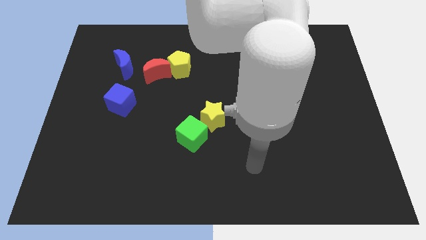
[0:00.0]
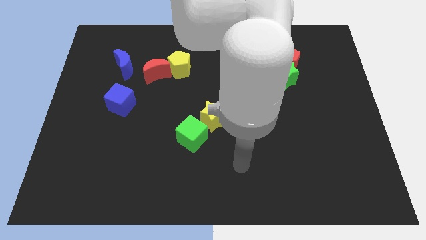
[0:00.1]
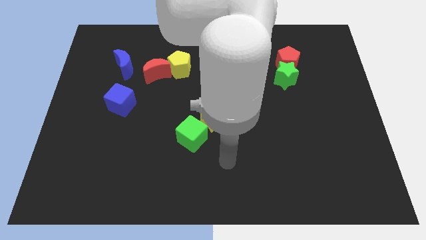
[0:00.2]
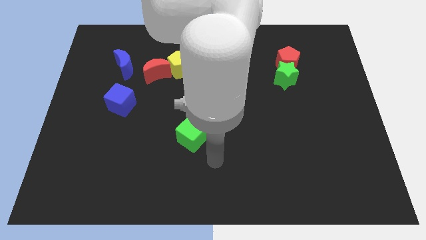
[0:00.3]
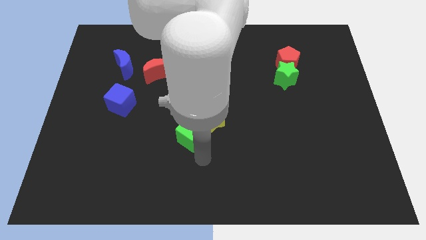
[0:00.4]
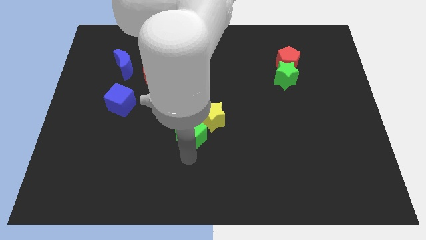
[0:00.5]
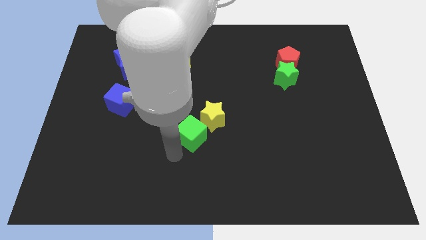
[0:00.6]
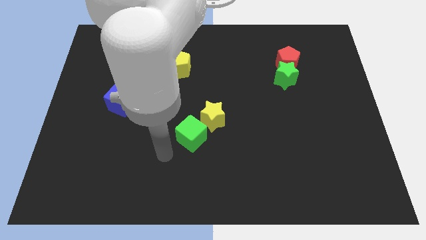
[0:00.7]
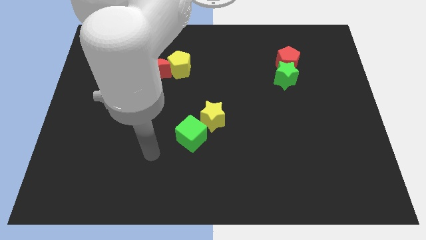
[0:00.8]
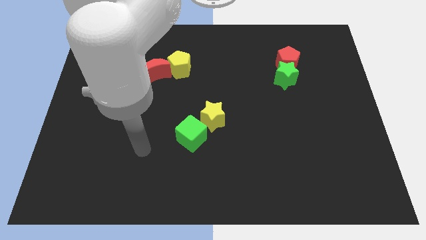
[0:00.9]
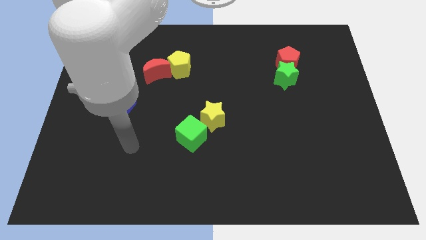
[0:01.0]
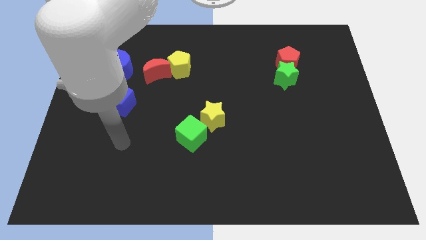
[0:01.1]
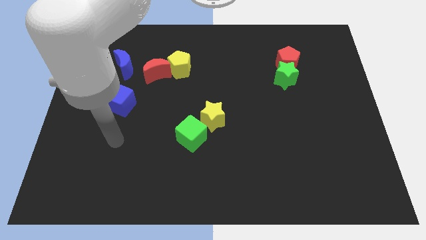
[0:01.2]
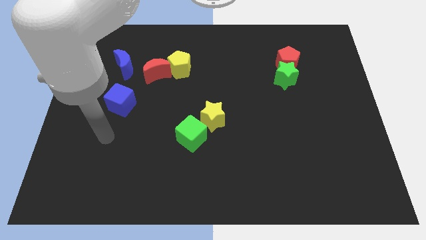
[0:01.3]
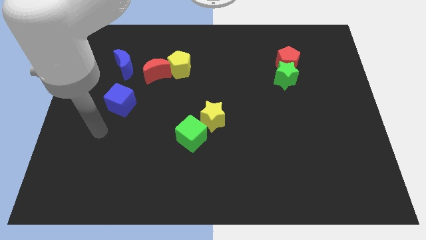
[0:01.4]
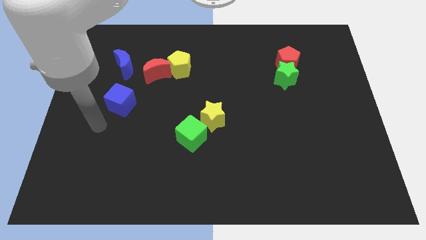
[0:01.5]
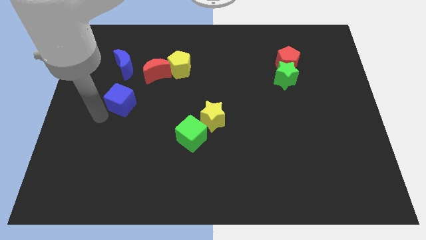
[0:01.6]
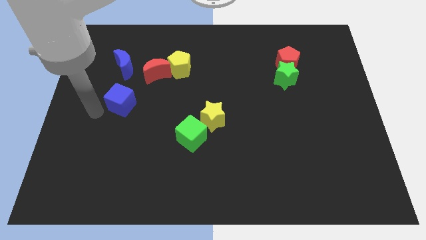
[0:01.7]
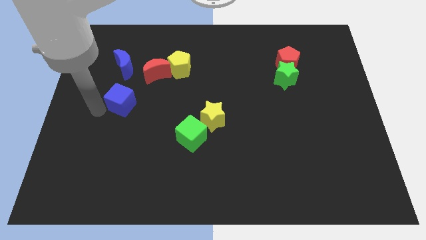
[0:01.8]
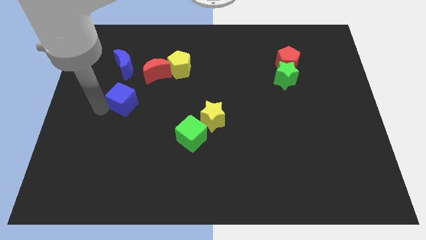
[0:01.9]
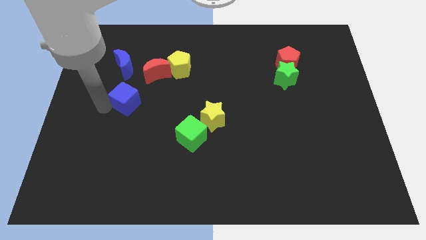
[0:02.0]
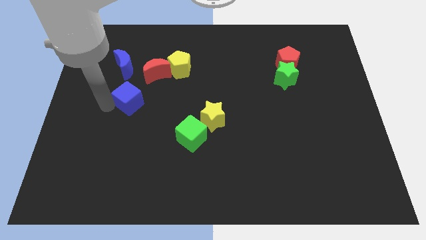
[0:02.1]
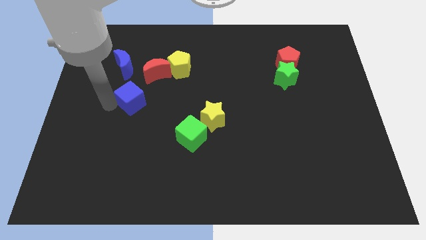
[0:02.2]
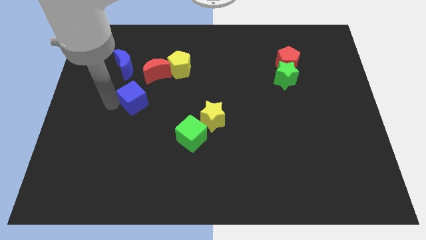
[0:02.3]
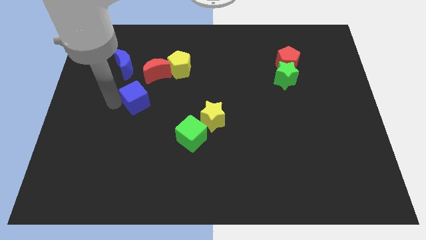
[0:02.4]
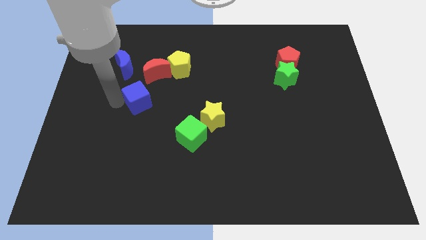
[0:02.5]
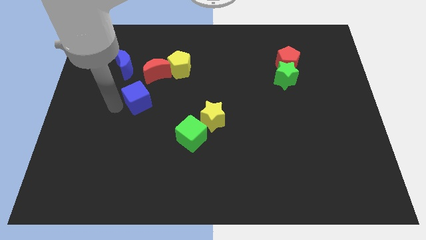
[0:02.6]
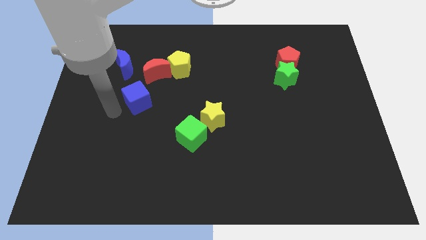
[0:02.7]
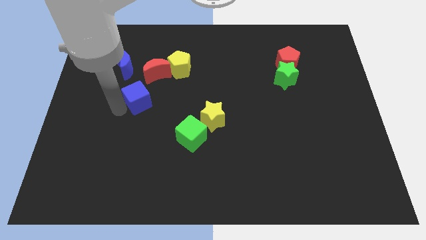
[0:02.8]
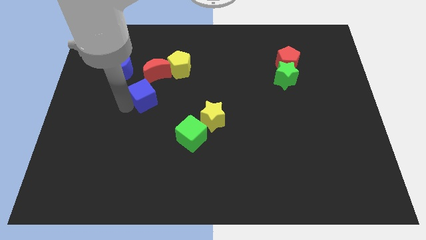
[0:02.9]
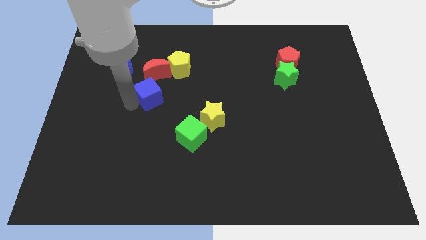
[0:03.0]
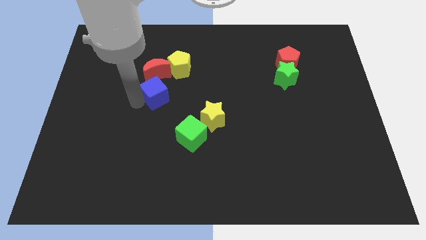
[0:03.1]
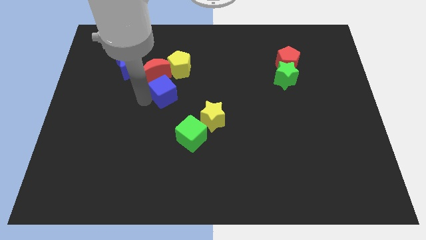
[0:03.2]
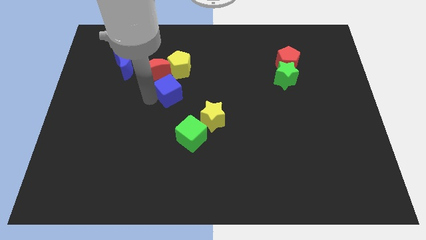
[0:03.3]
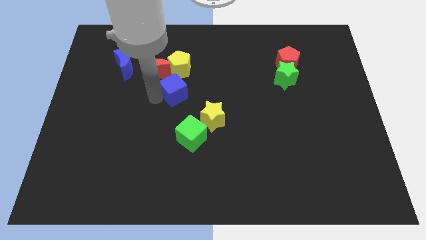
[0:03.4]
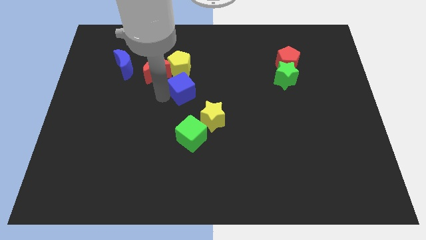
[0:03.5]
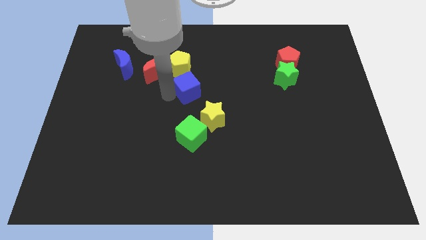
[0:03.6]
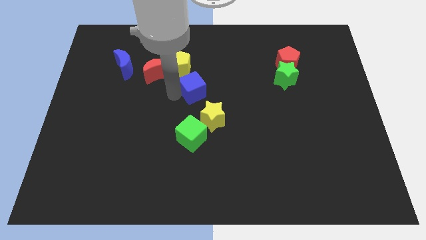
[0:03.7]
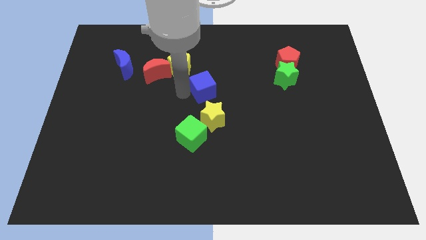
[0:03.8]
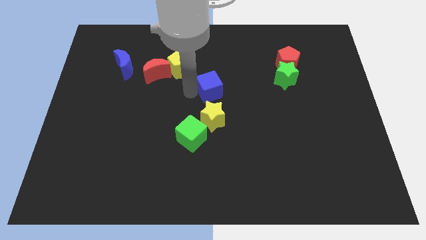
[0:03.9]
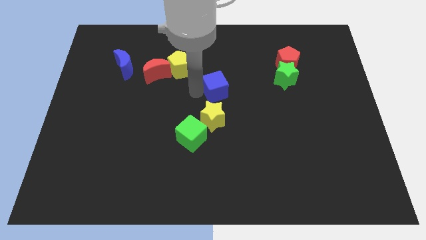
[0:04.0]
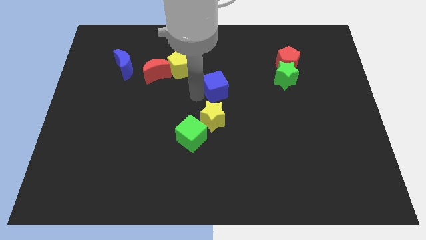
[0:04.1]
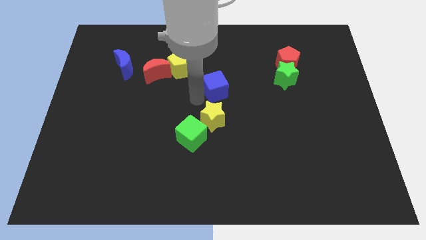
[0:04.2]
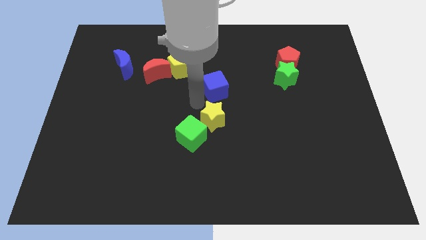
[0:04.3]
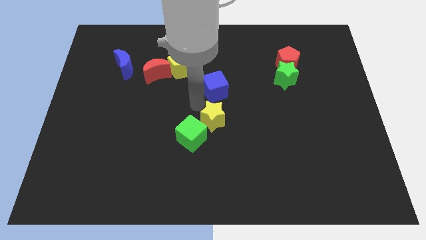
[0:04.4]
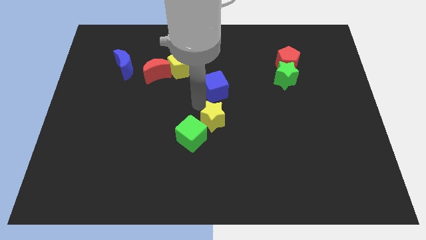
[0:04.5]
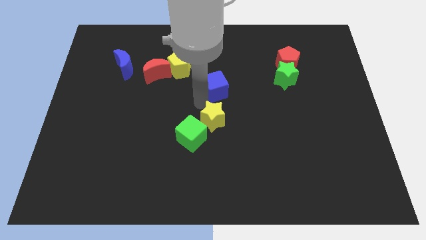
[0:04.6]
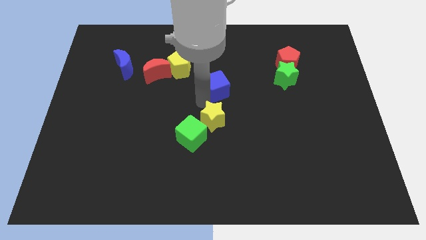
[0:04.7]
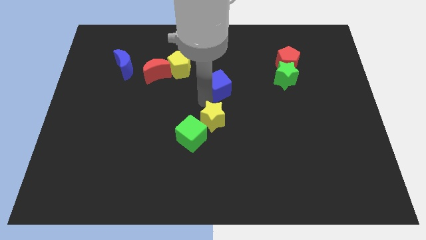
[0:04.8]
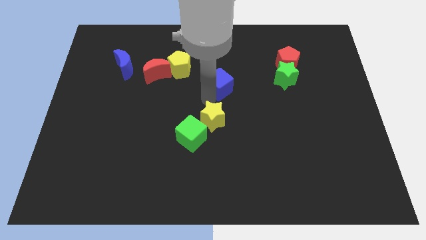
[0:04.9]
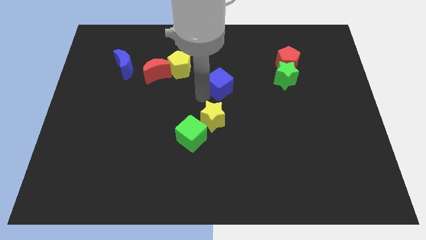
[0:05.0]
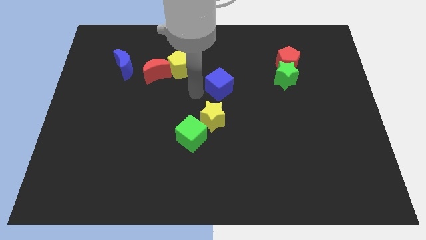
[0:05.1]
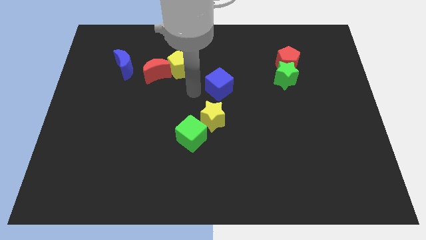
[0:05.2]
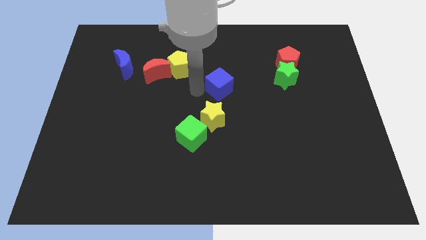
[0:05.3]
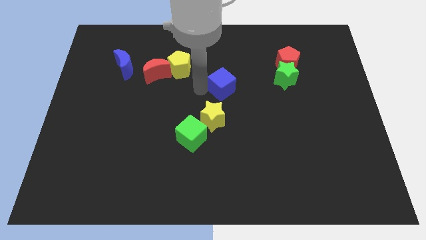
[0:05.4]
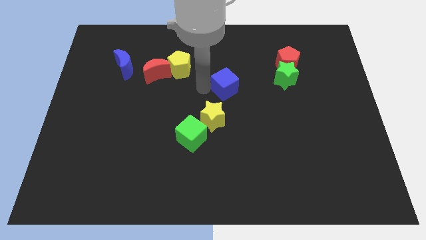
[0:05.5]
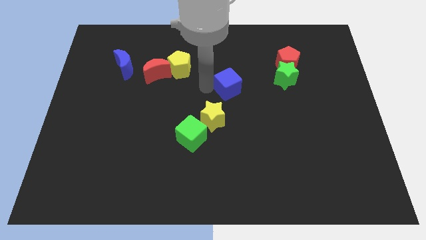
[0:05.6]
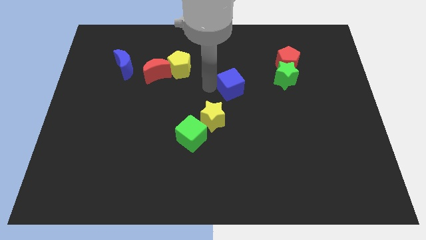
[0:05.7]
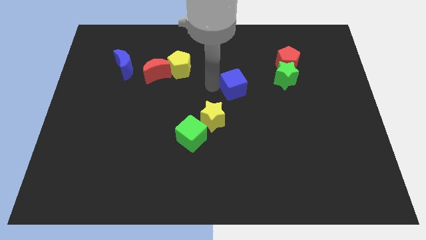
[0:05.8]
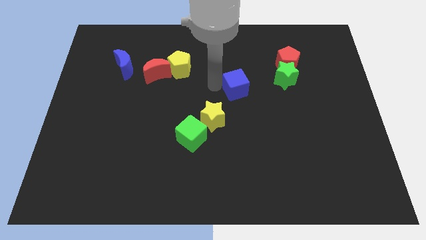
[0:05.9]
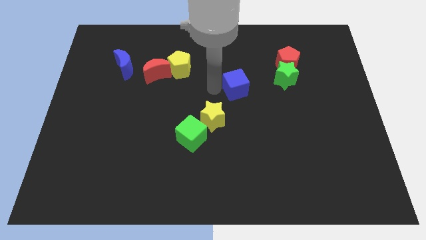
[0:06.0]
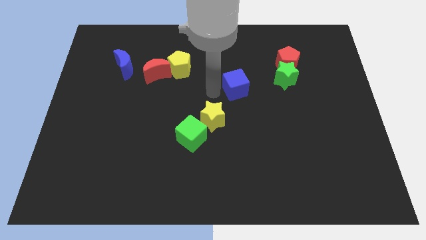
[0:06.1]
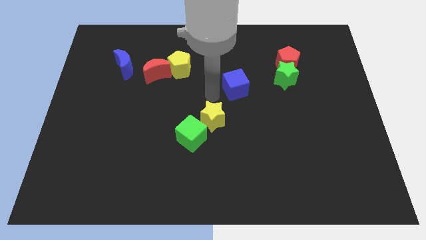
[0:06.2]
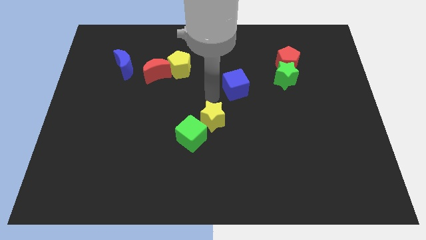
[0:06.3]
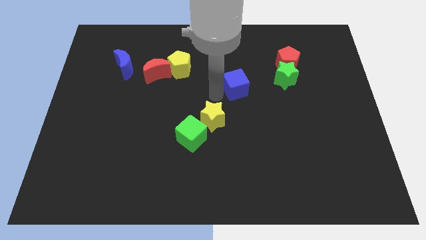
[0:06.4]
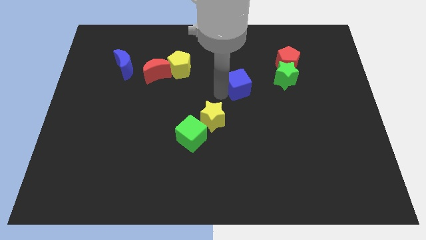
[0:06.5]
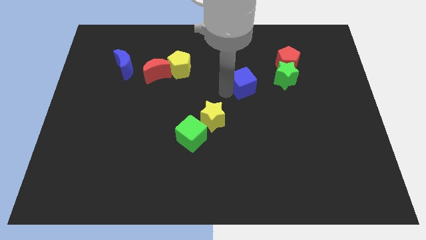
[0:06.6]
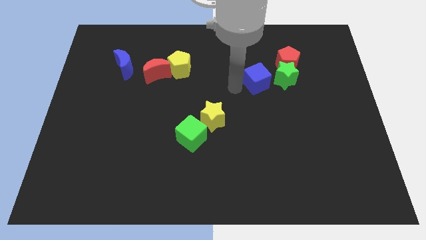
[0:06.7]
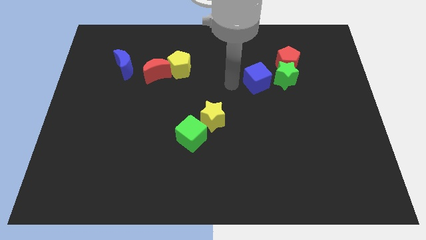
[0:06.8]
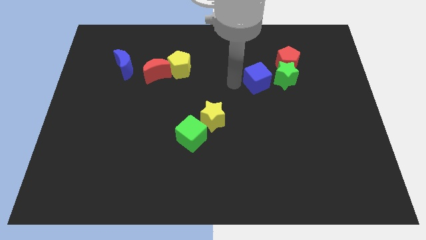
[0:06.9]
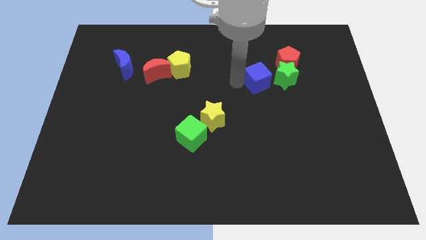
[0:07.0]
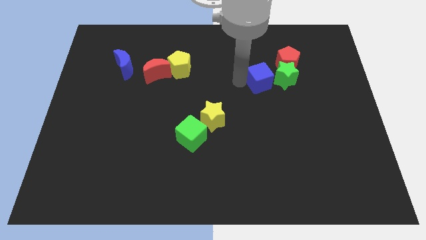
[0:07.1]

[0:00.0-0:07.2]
put the blue cube next to the green star

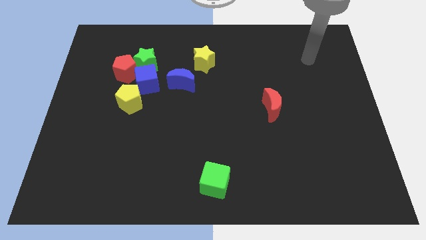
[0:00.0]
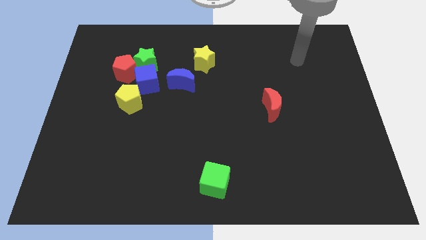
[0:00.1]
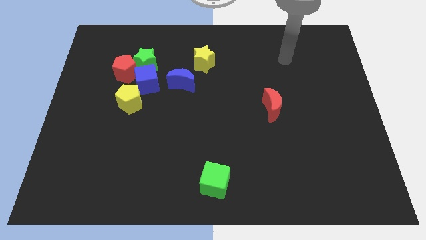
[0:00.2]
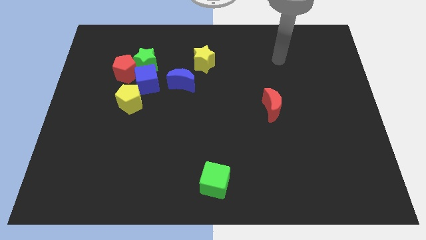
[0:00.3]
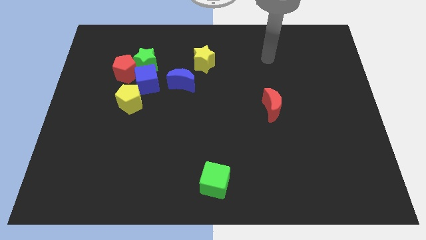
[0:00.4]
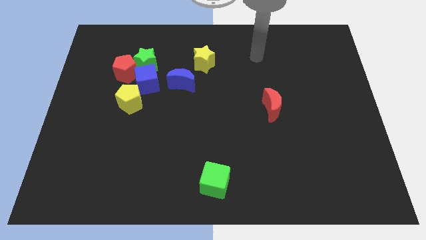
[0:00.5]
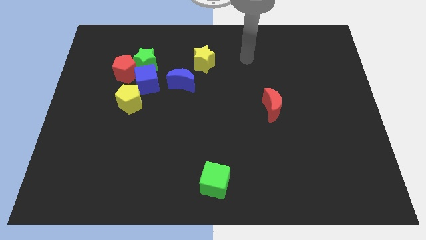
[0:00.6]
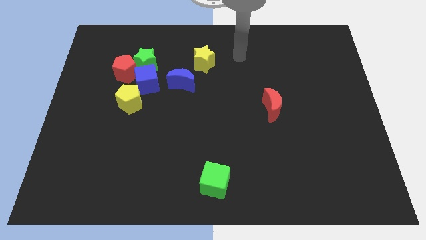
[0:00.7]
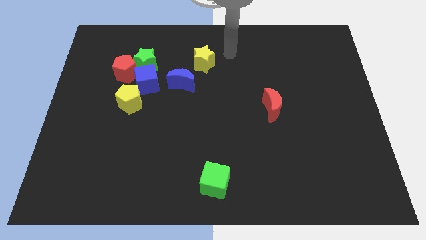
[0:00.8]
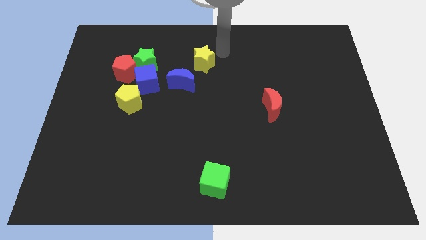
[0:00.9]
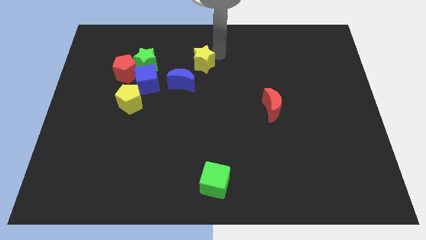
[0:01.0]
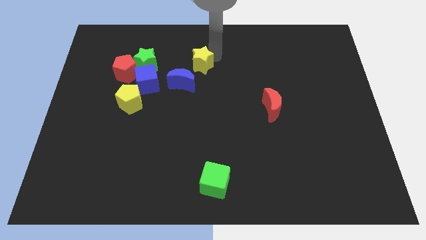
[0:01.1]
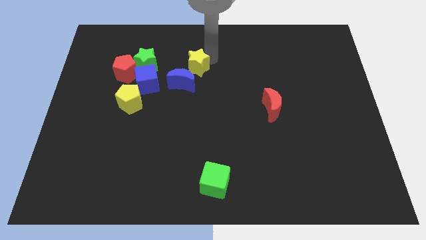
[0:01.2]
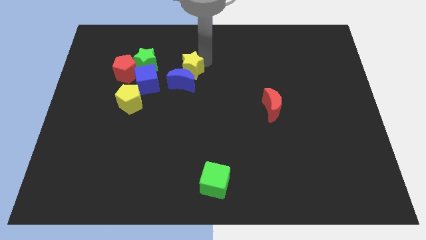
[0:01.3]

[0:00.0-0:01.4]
push the yellow star next to the blue moon
